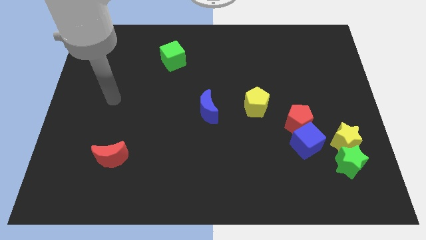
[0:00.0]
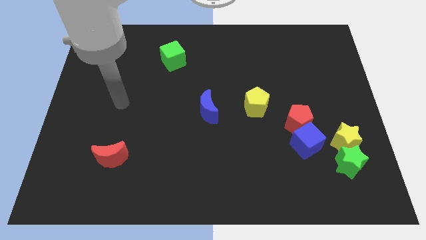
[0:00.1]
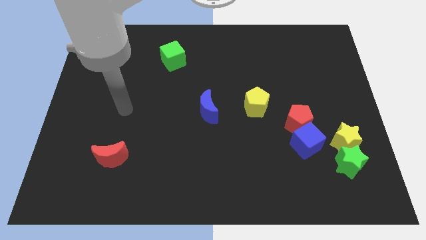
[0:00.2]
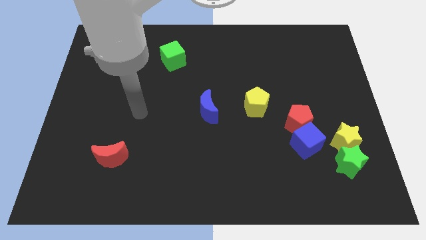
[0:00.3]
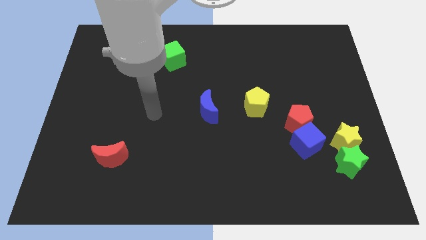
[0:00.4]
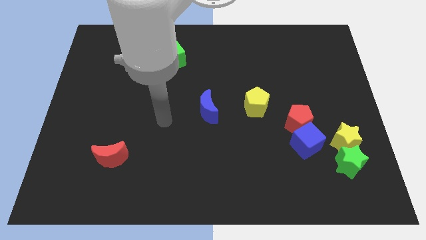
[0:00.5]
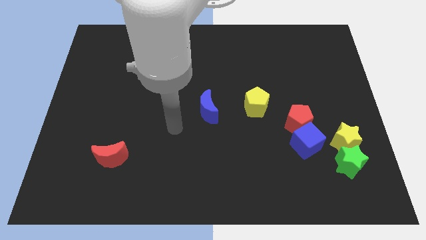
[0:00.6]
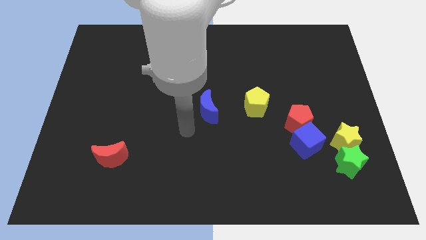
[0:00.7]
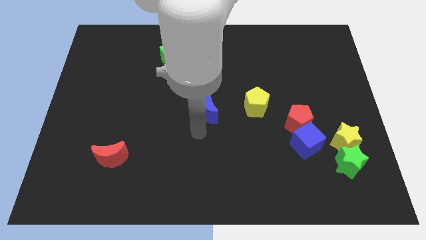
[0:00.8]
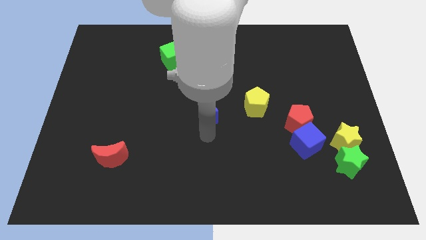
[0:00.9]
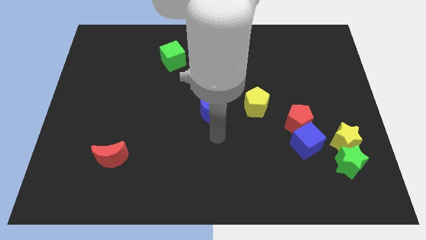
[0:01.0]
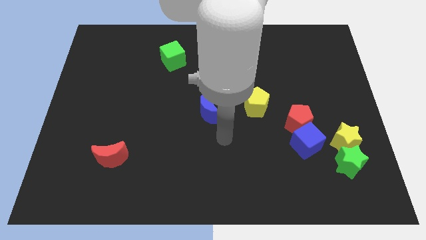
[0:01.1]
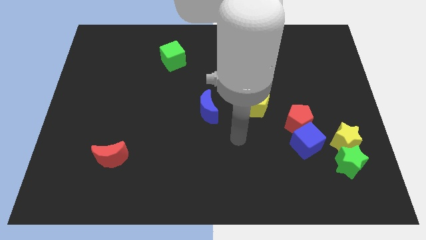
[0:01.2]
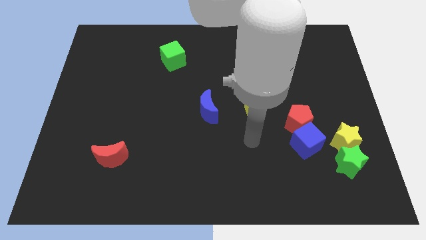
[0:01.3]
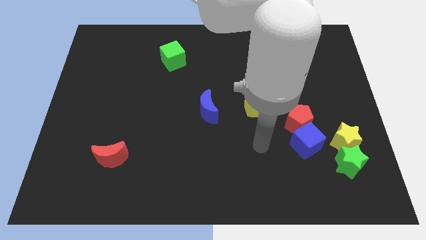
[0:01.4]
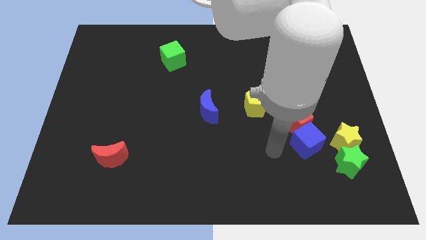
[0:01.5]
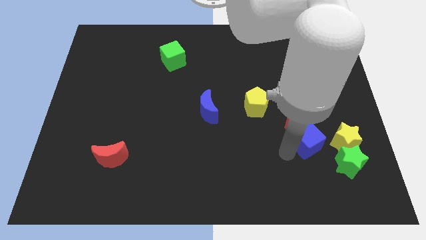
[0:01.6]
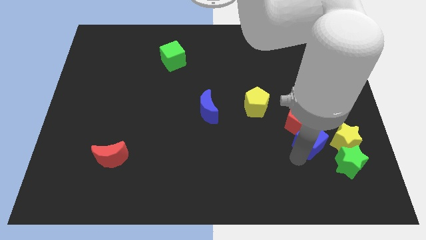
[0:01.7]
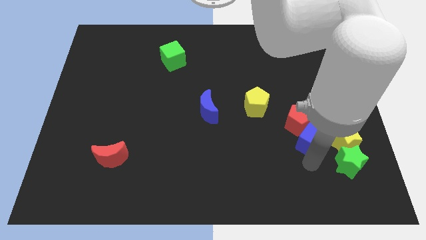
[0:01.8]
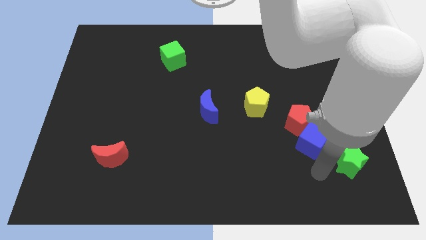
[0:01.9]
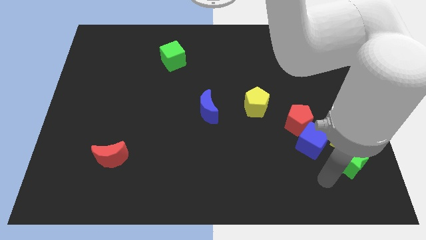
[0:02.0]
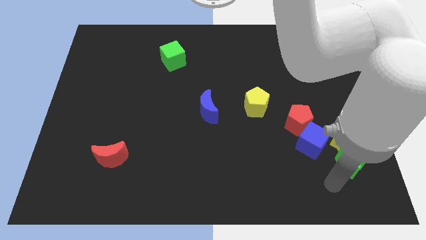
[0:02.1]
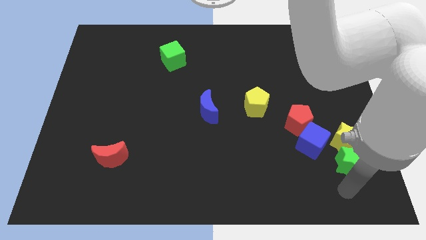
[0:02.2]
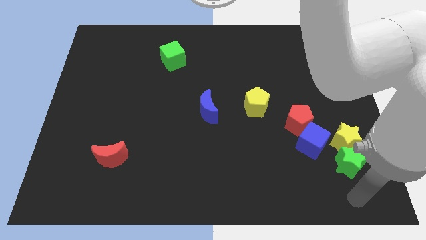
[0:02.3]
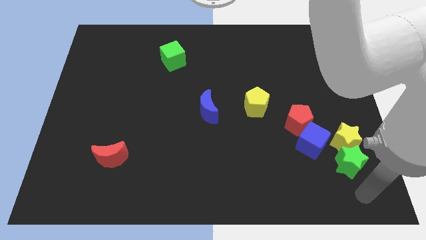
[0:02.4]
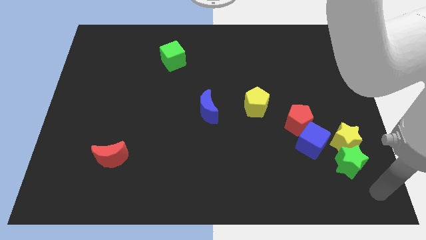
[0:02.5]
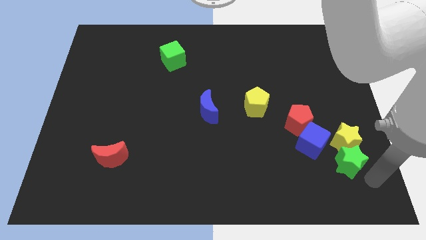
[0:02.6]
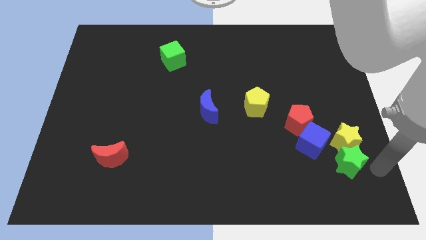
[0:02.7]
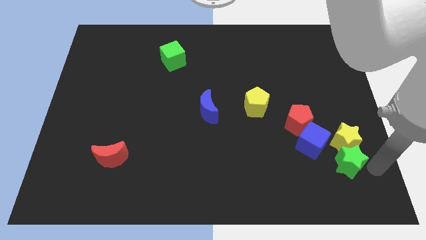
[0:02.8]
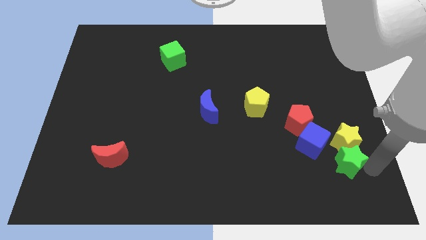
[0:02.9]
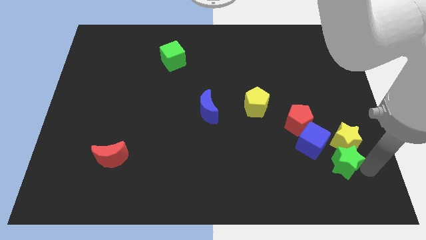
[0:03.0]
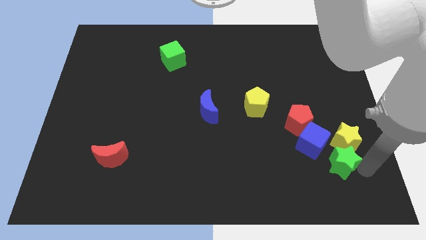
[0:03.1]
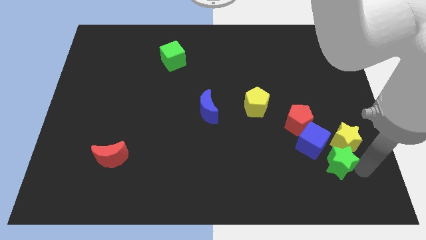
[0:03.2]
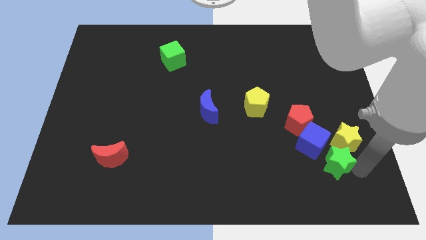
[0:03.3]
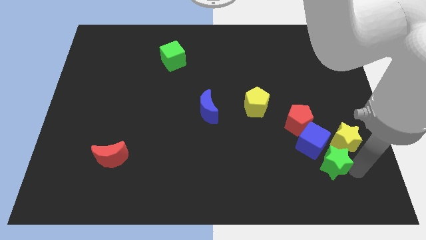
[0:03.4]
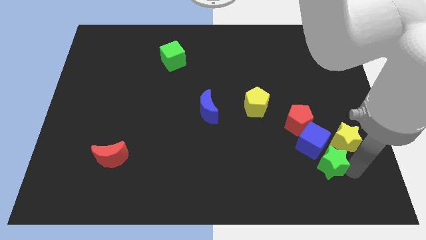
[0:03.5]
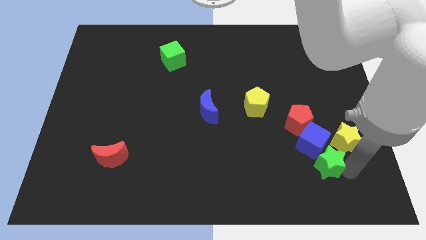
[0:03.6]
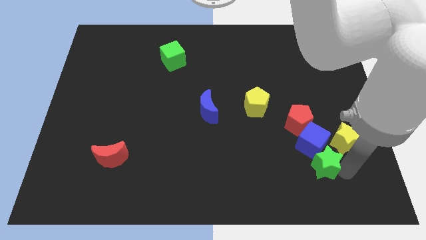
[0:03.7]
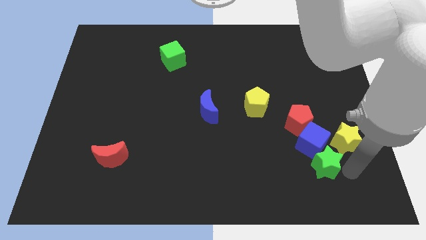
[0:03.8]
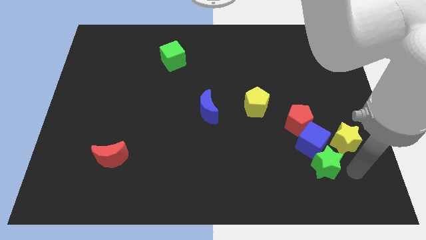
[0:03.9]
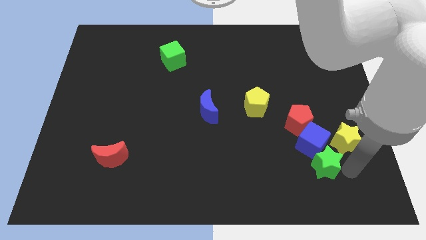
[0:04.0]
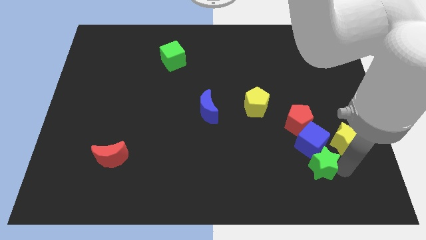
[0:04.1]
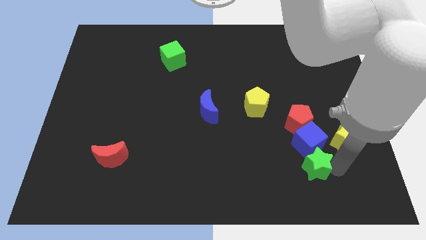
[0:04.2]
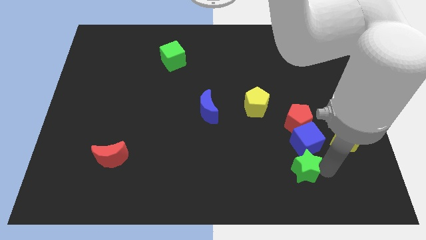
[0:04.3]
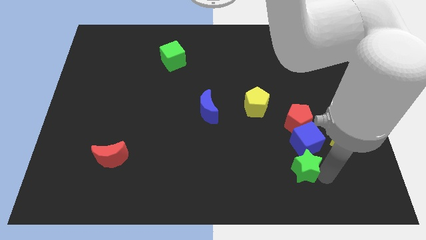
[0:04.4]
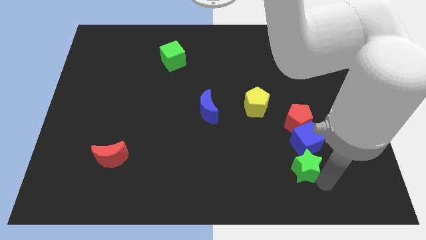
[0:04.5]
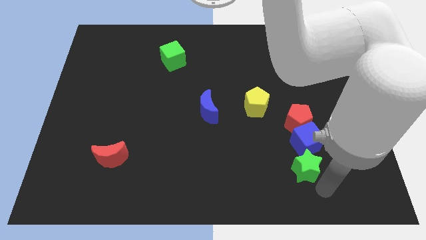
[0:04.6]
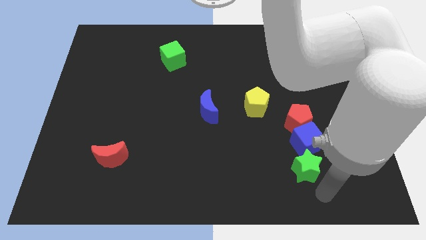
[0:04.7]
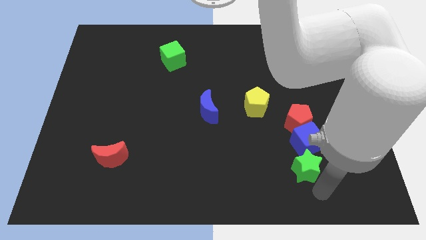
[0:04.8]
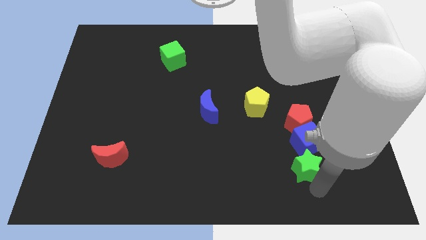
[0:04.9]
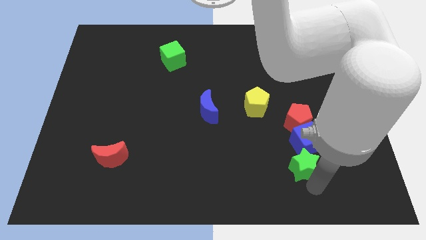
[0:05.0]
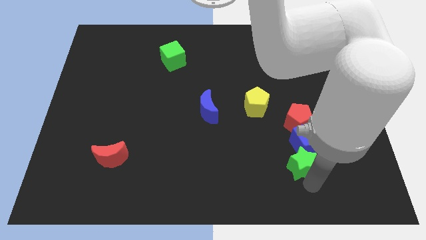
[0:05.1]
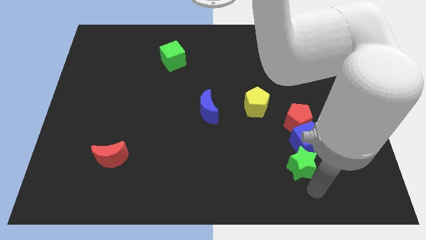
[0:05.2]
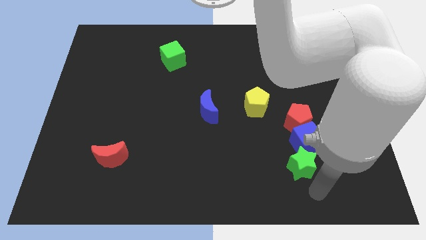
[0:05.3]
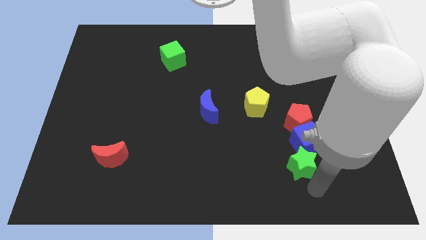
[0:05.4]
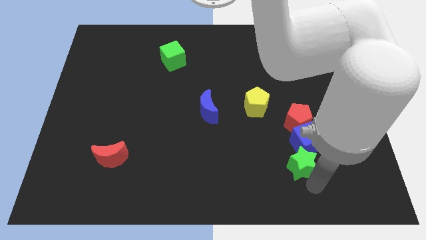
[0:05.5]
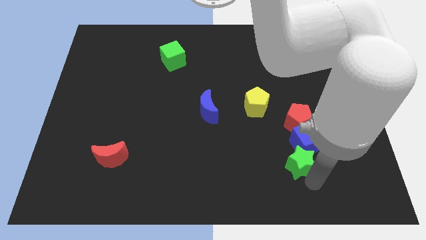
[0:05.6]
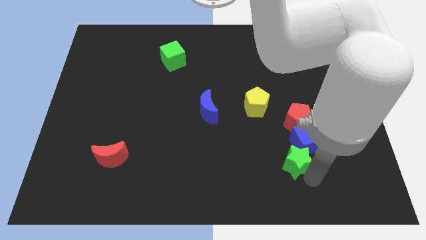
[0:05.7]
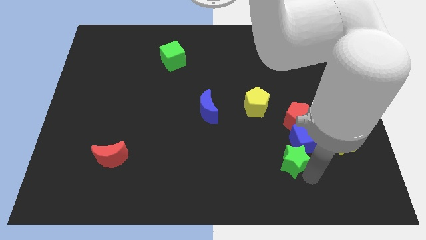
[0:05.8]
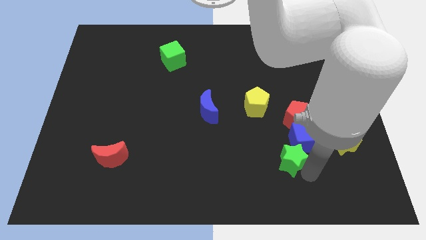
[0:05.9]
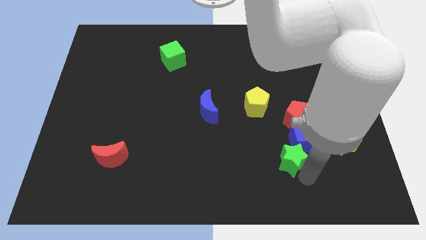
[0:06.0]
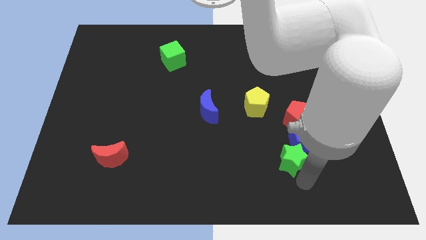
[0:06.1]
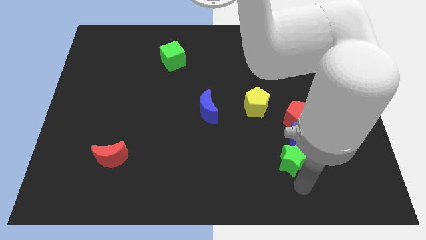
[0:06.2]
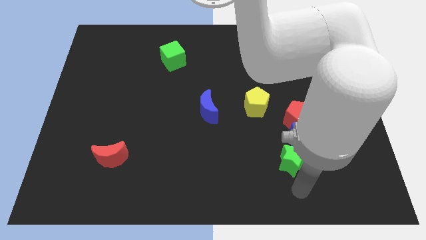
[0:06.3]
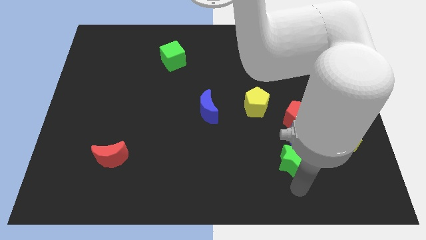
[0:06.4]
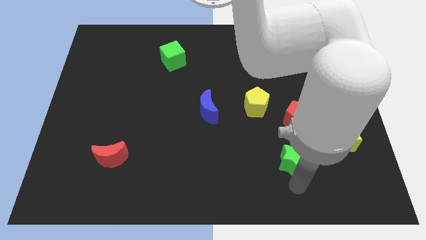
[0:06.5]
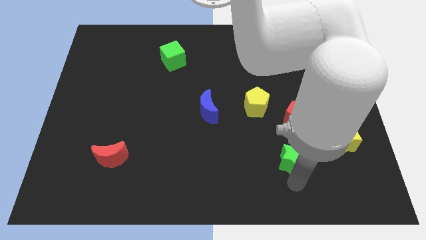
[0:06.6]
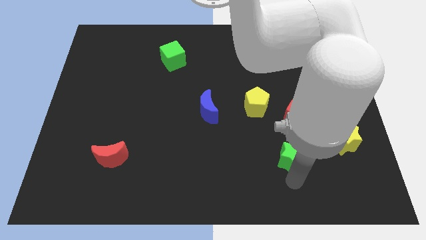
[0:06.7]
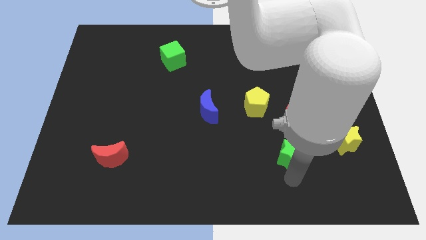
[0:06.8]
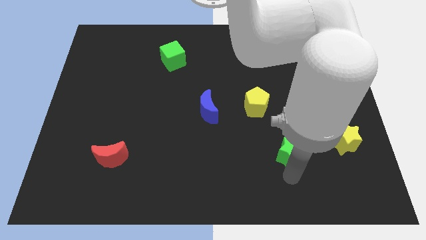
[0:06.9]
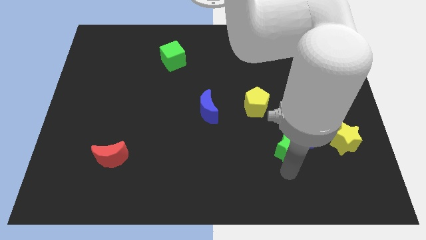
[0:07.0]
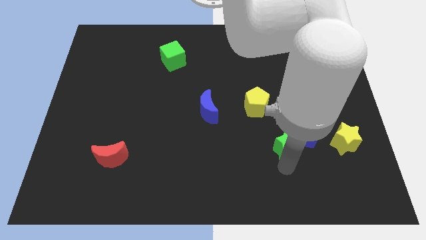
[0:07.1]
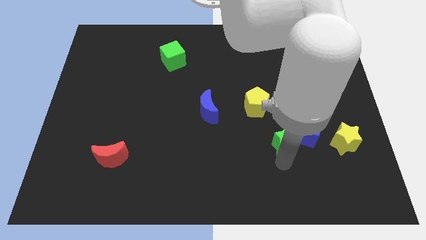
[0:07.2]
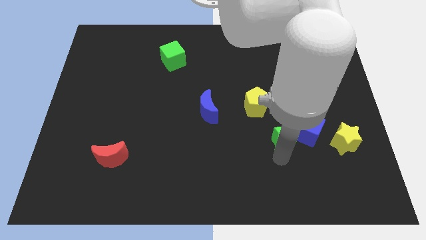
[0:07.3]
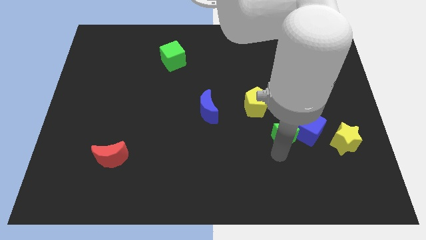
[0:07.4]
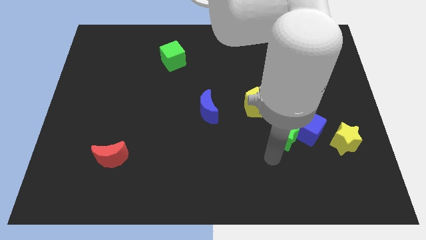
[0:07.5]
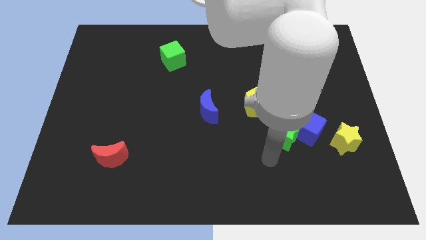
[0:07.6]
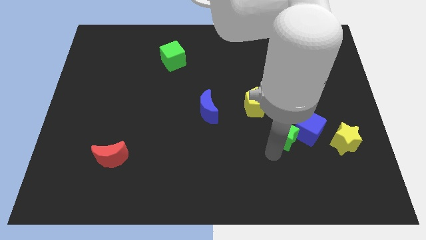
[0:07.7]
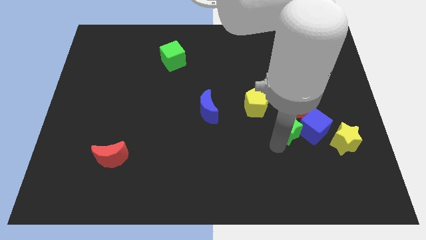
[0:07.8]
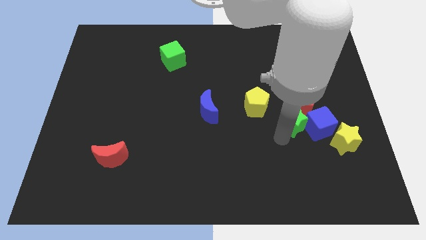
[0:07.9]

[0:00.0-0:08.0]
slide the green star to the red pentagon
